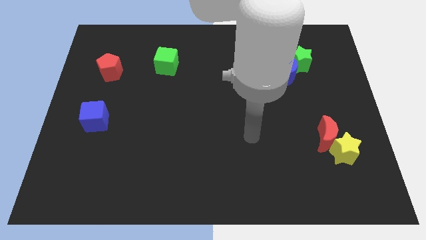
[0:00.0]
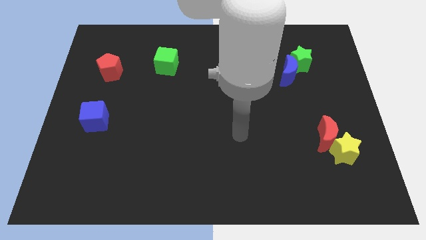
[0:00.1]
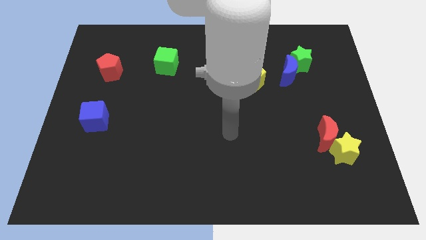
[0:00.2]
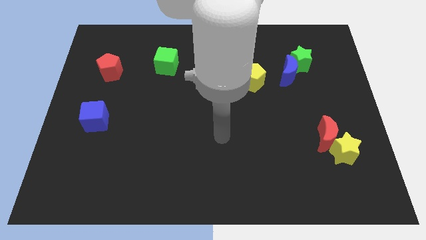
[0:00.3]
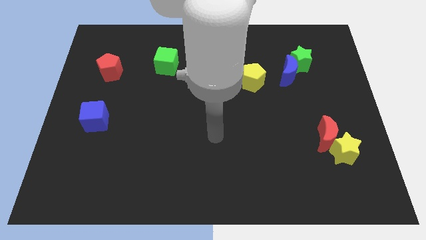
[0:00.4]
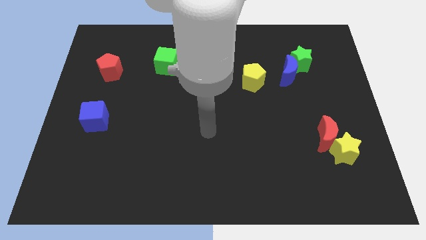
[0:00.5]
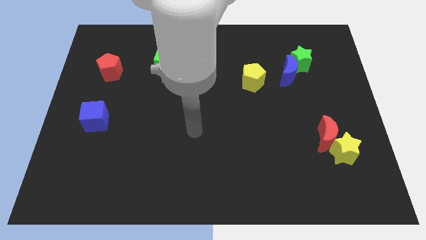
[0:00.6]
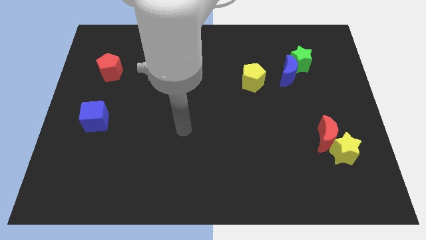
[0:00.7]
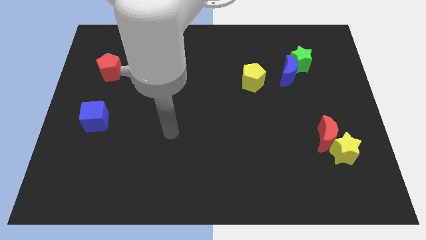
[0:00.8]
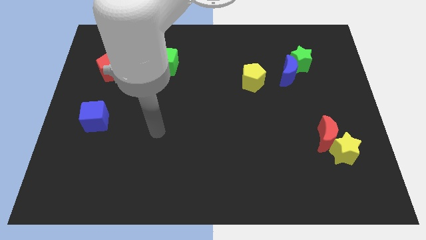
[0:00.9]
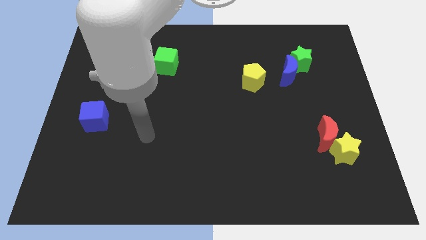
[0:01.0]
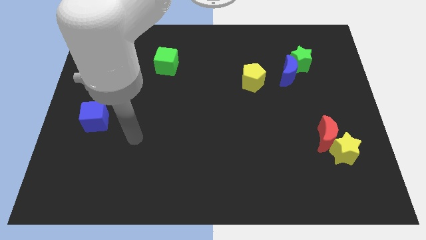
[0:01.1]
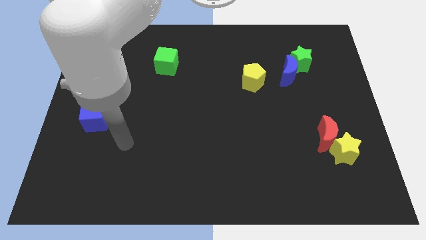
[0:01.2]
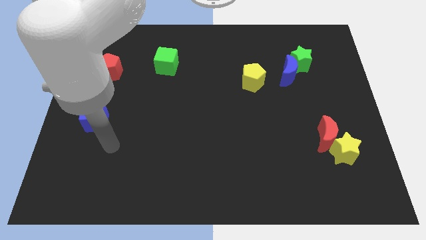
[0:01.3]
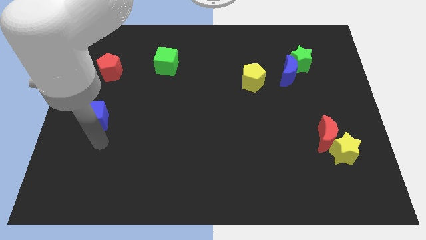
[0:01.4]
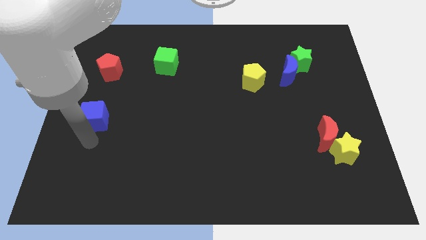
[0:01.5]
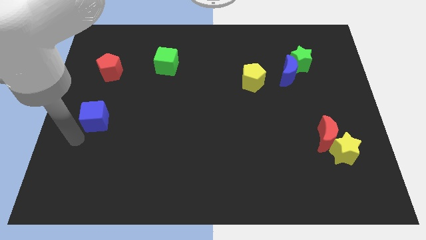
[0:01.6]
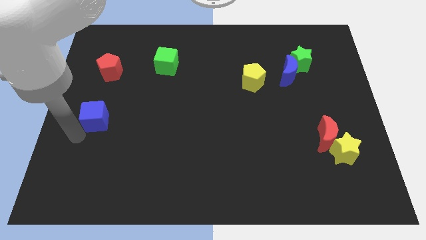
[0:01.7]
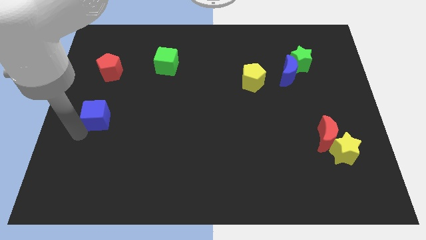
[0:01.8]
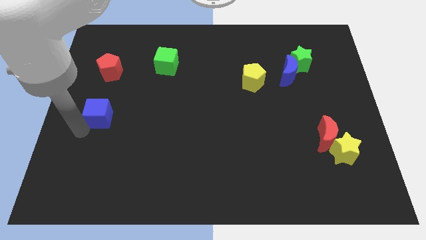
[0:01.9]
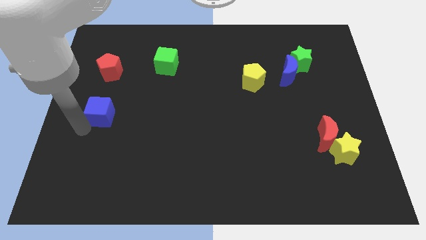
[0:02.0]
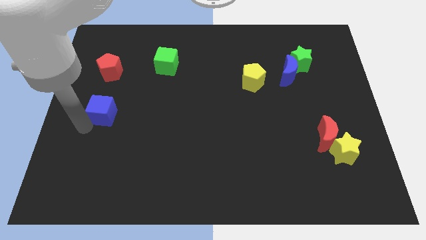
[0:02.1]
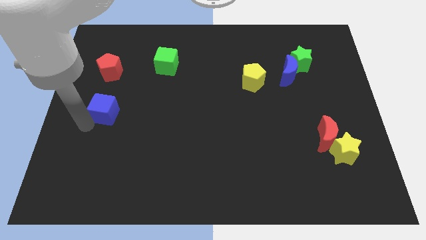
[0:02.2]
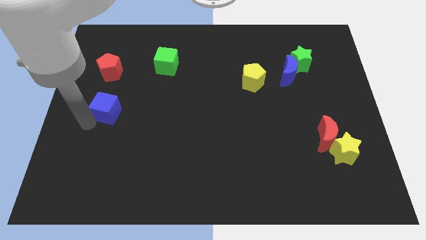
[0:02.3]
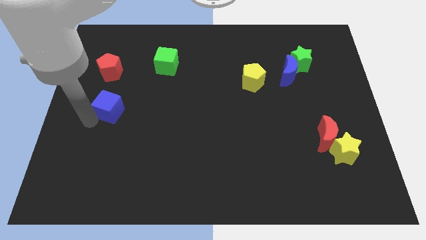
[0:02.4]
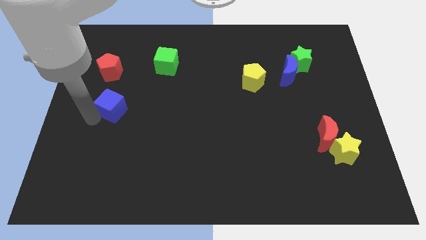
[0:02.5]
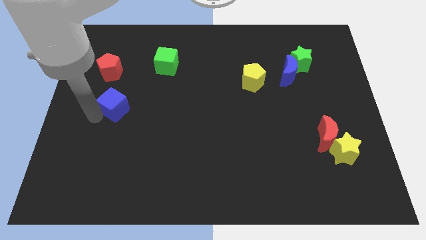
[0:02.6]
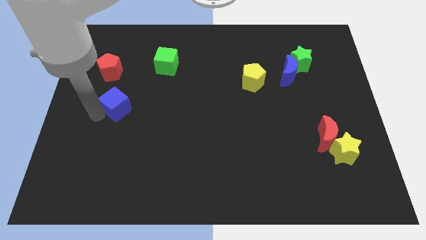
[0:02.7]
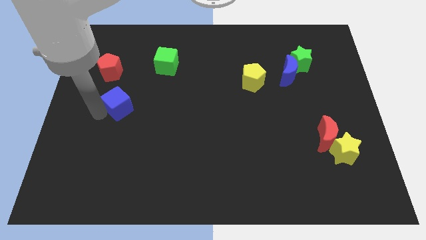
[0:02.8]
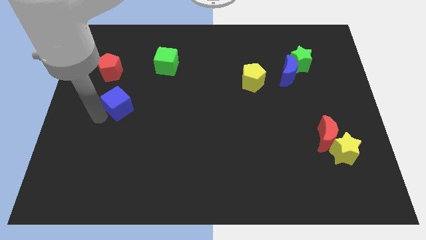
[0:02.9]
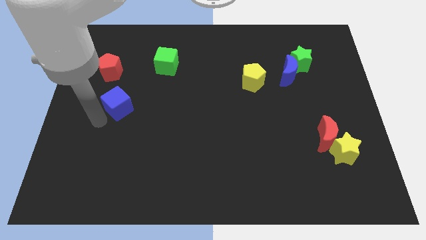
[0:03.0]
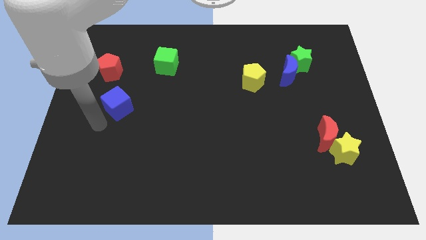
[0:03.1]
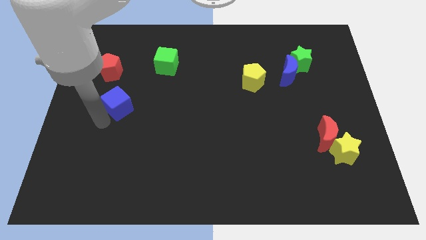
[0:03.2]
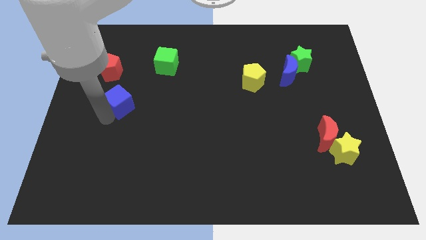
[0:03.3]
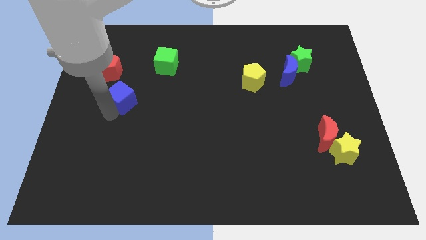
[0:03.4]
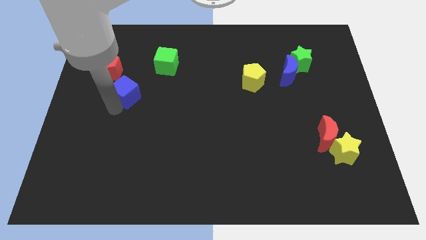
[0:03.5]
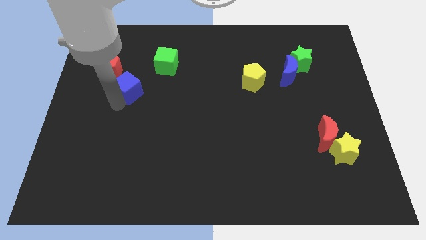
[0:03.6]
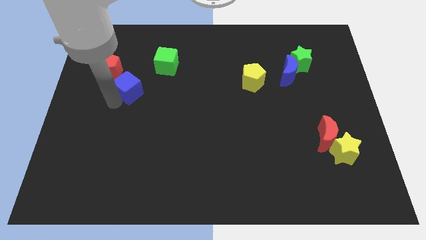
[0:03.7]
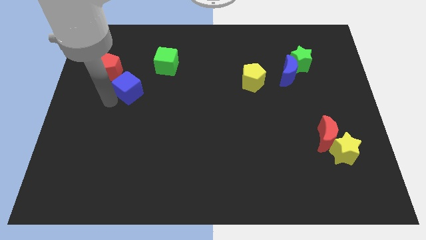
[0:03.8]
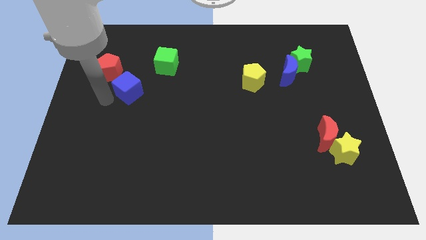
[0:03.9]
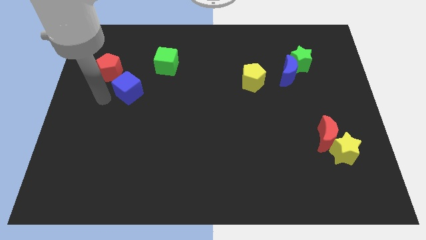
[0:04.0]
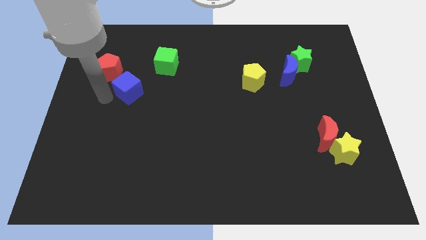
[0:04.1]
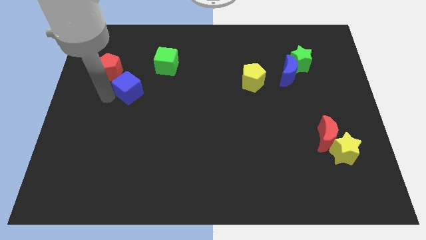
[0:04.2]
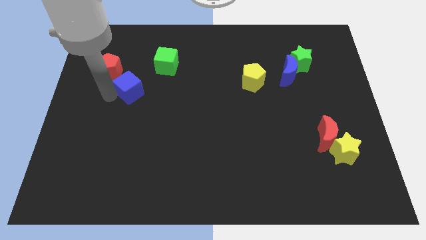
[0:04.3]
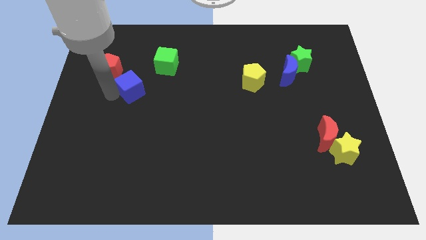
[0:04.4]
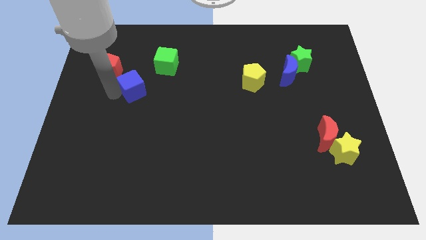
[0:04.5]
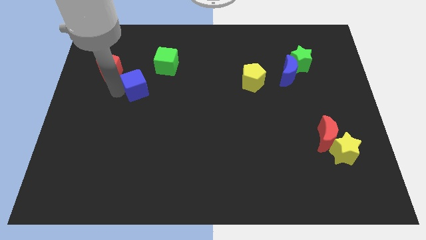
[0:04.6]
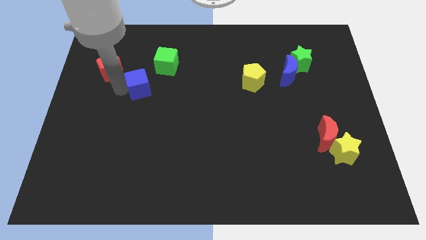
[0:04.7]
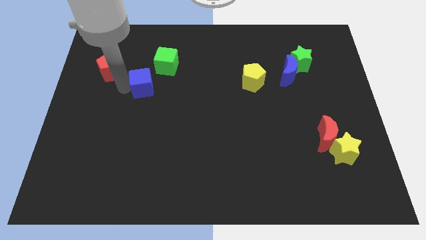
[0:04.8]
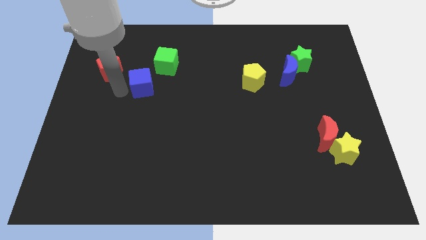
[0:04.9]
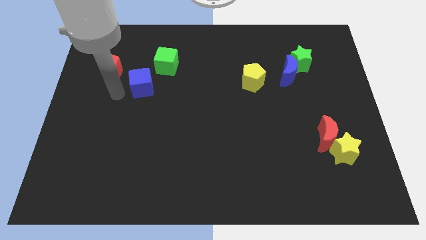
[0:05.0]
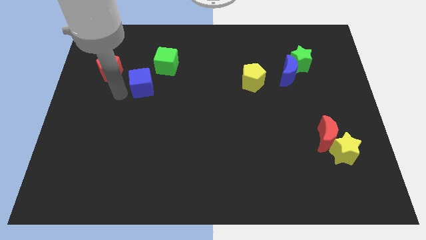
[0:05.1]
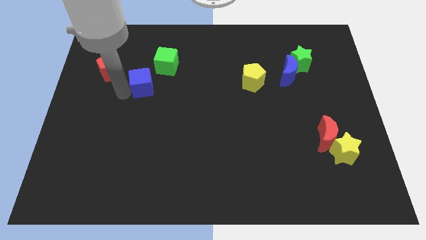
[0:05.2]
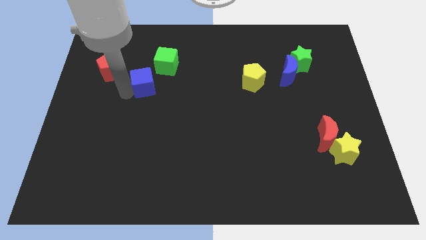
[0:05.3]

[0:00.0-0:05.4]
put the blue cube just right of the red pentagon

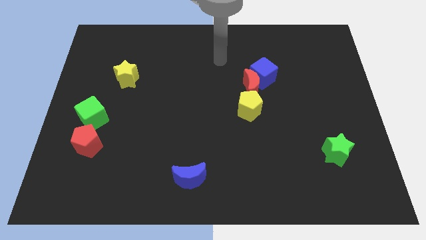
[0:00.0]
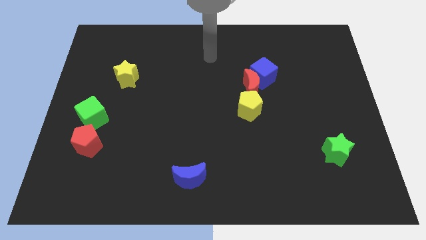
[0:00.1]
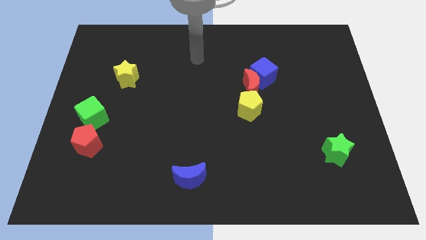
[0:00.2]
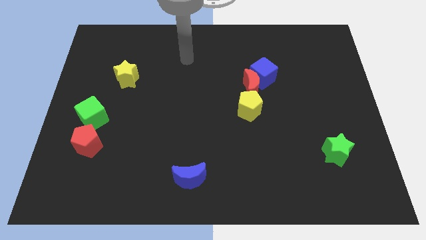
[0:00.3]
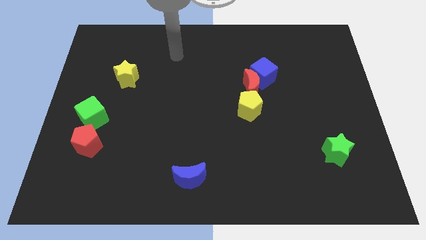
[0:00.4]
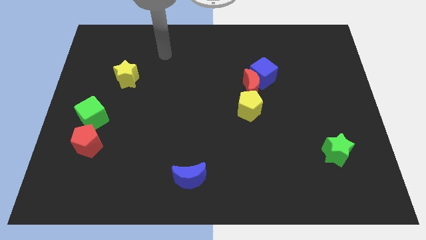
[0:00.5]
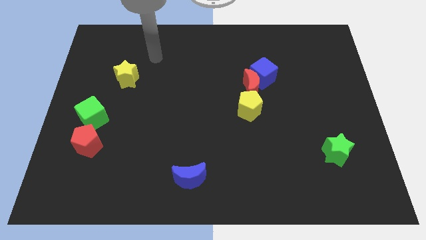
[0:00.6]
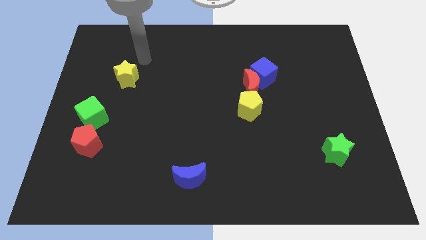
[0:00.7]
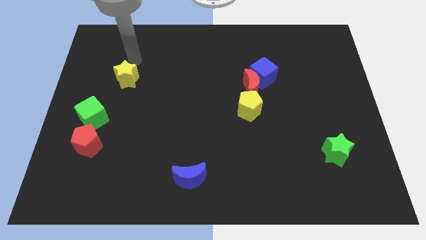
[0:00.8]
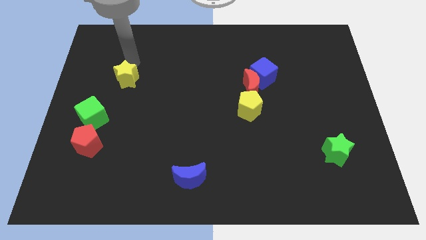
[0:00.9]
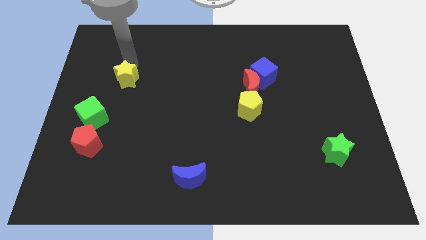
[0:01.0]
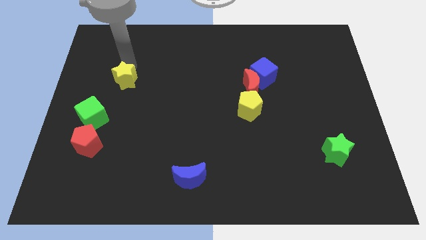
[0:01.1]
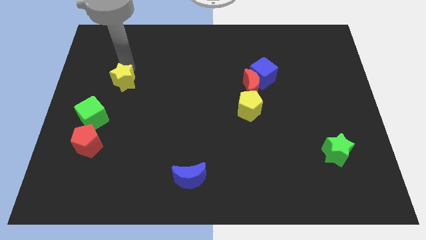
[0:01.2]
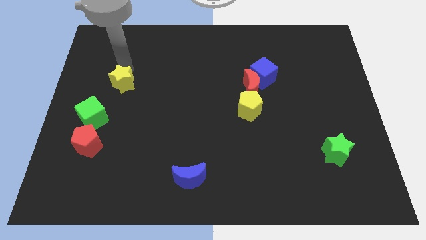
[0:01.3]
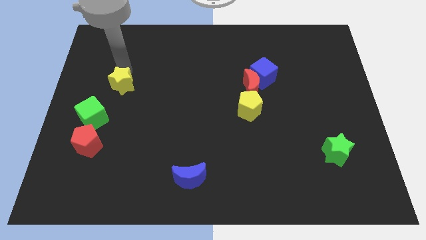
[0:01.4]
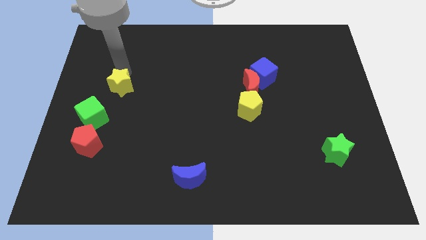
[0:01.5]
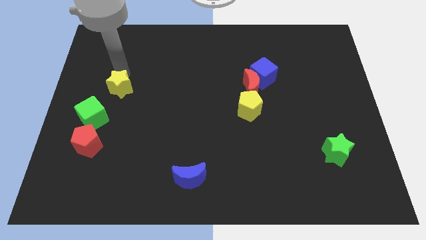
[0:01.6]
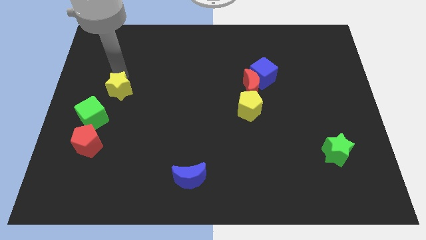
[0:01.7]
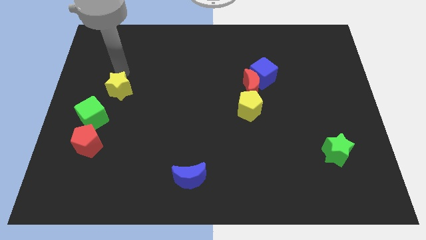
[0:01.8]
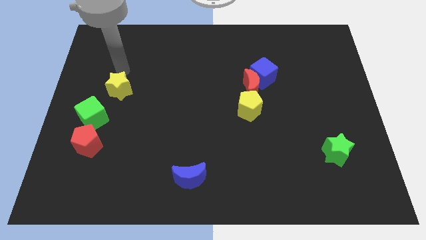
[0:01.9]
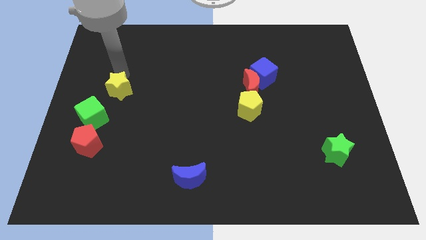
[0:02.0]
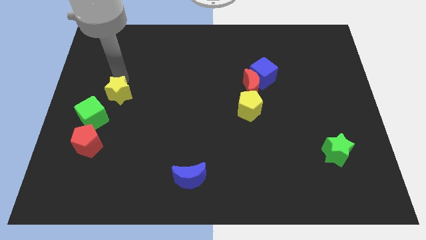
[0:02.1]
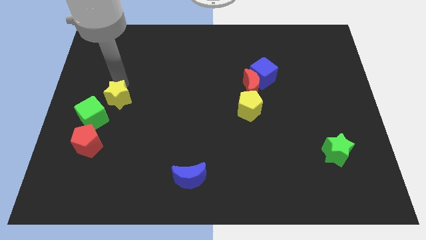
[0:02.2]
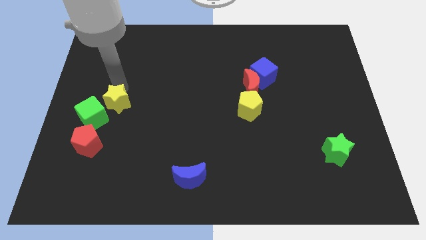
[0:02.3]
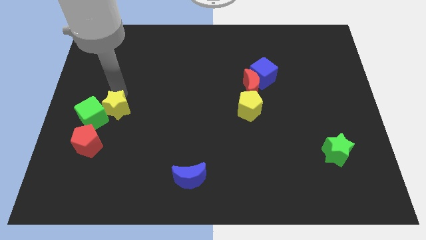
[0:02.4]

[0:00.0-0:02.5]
put the yellow star diagonally up and to the right of the red pentagon
